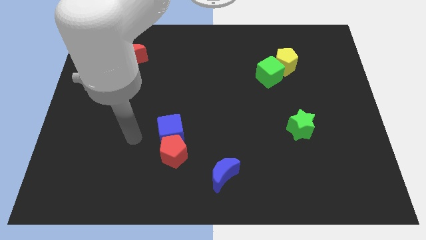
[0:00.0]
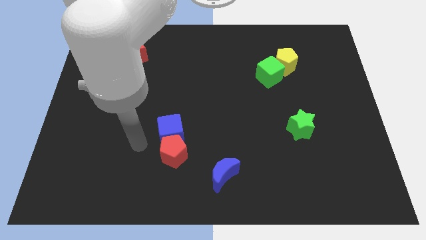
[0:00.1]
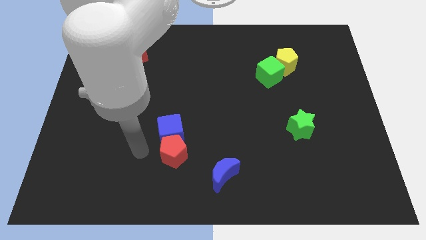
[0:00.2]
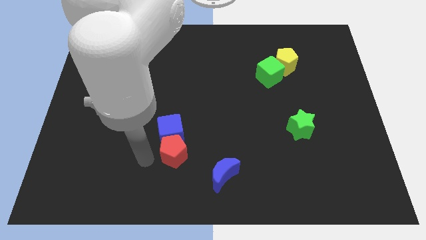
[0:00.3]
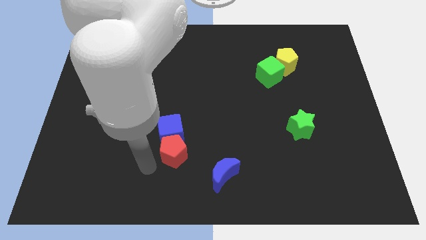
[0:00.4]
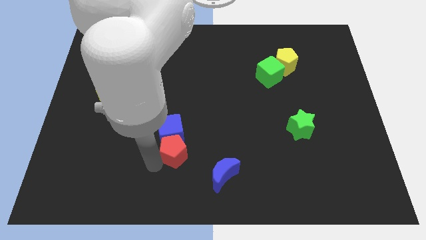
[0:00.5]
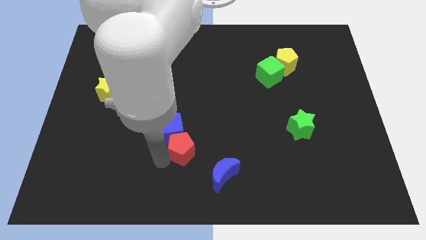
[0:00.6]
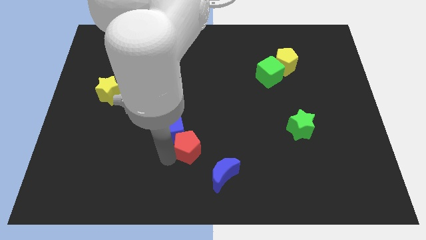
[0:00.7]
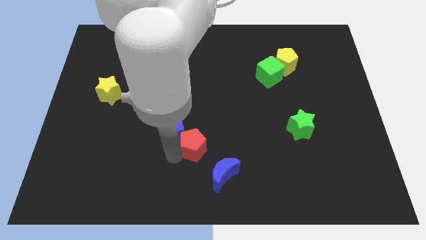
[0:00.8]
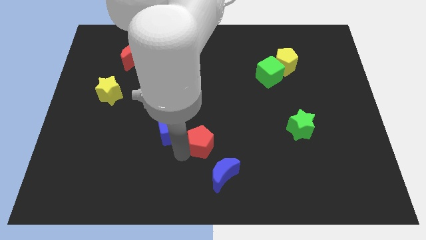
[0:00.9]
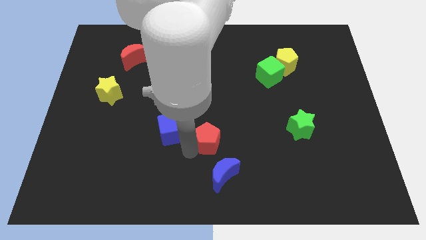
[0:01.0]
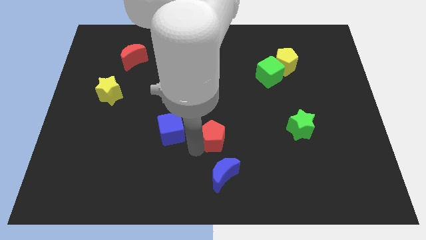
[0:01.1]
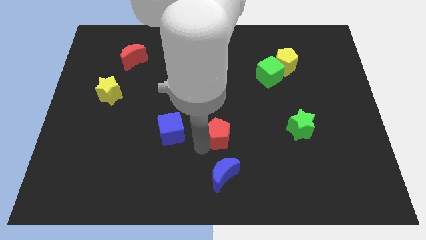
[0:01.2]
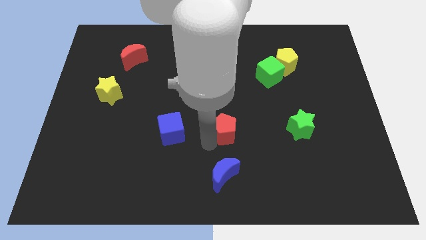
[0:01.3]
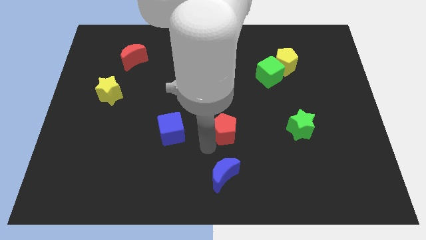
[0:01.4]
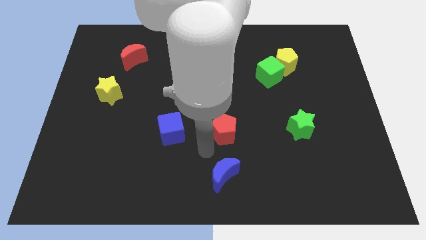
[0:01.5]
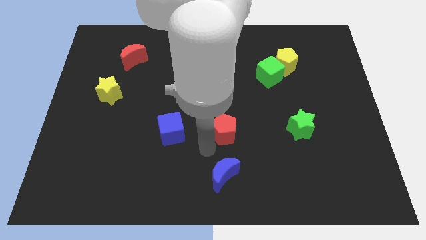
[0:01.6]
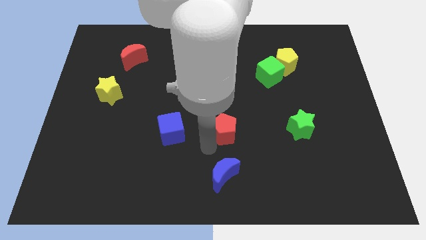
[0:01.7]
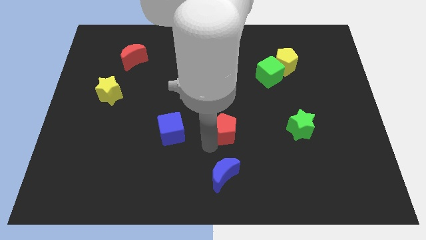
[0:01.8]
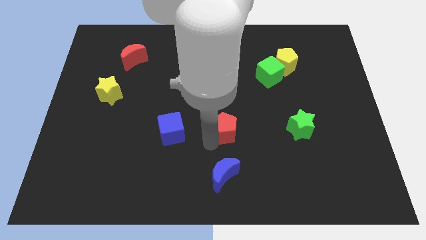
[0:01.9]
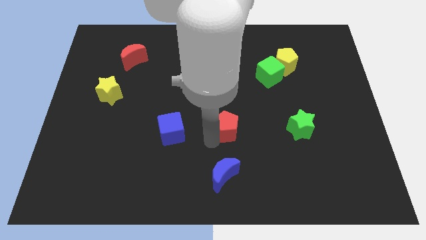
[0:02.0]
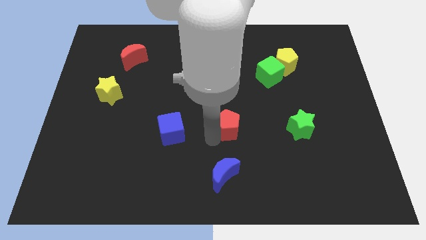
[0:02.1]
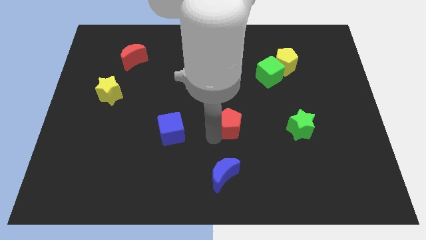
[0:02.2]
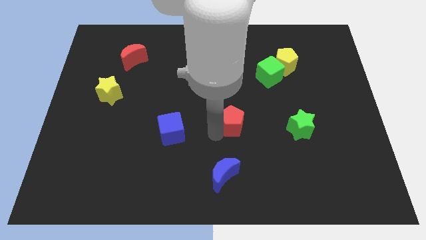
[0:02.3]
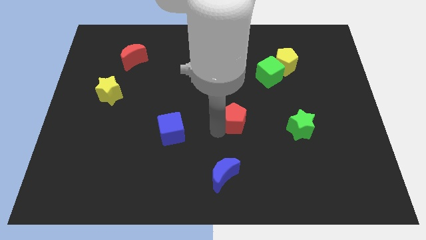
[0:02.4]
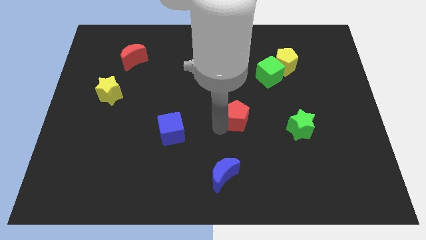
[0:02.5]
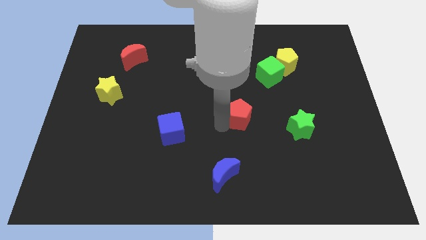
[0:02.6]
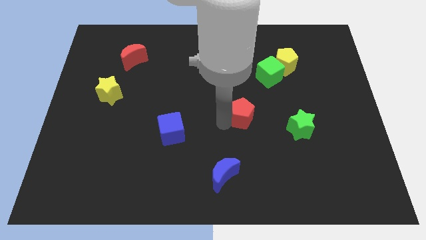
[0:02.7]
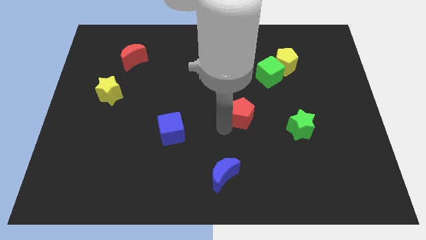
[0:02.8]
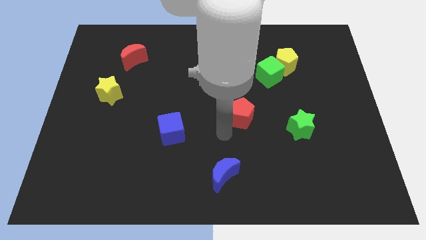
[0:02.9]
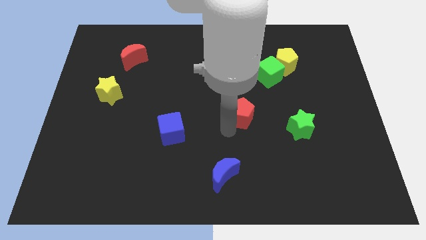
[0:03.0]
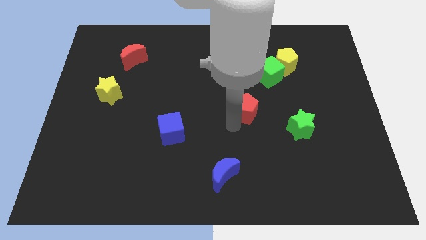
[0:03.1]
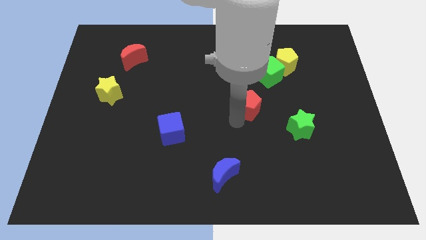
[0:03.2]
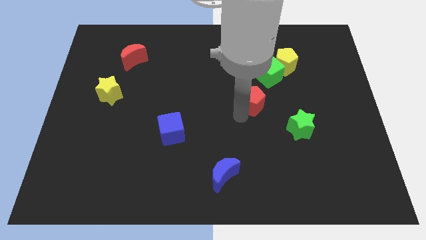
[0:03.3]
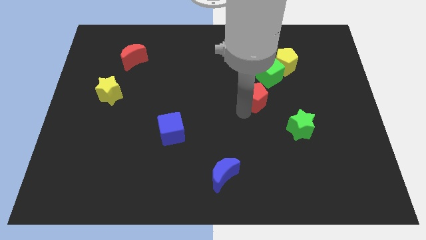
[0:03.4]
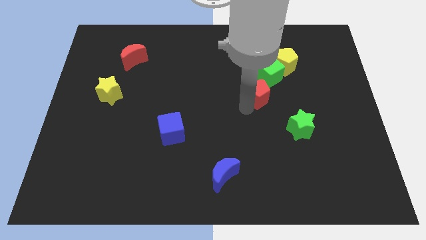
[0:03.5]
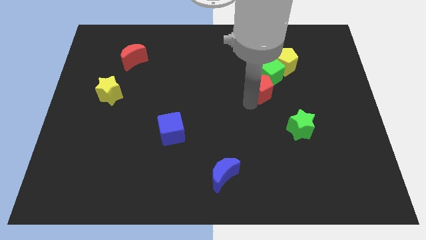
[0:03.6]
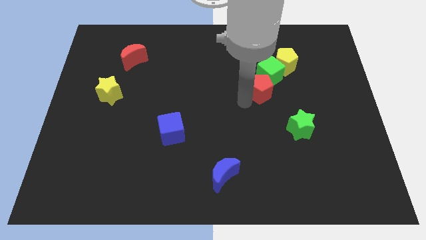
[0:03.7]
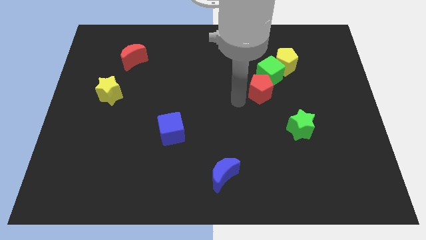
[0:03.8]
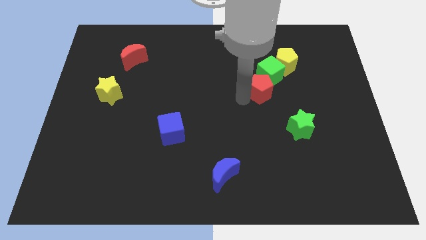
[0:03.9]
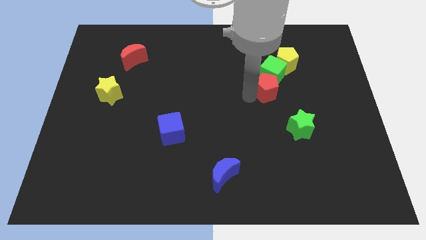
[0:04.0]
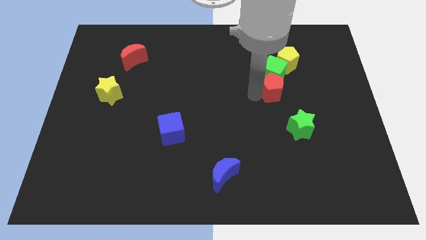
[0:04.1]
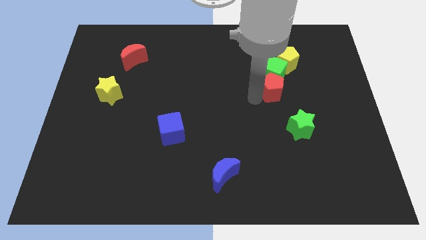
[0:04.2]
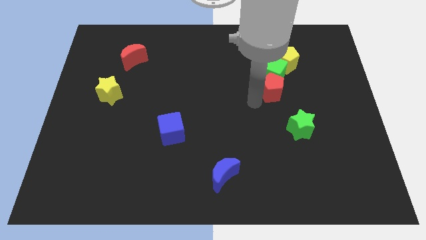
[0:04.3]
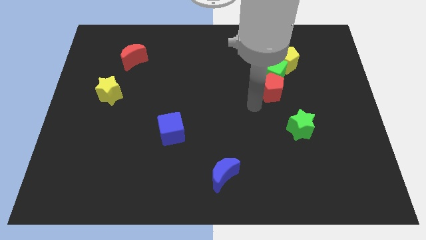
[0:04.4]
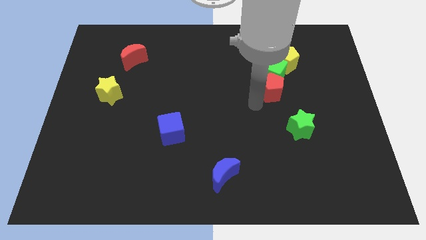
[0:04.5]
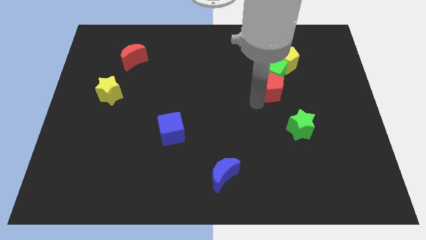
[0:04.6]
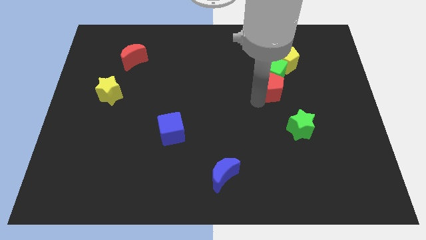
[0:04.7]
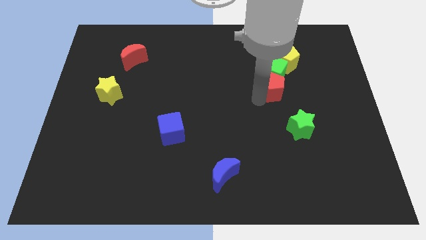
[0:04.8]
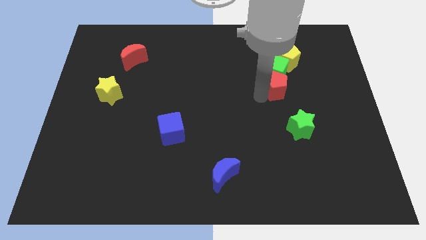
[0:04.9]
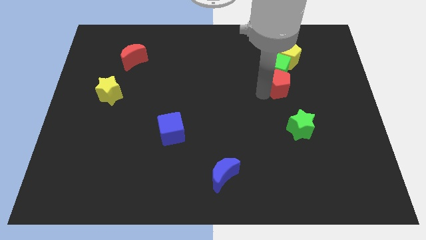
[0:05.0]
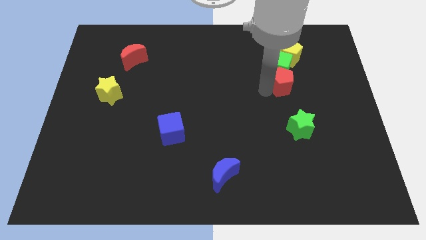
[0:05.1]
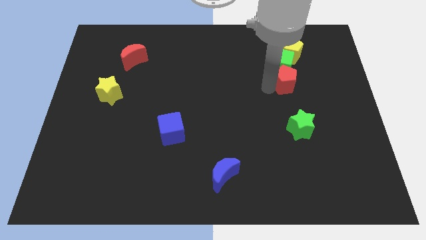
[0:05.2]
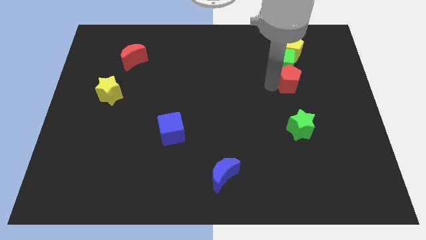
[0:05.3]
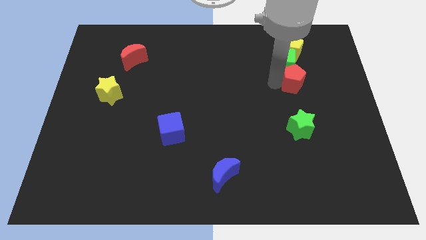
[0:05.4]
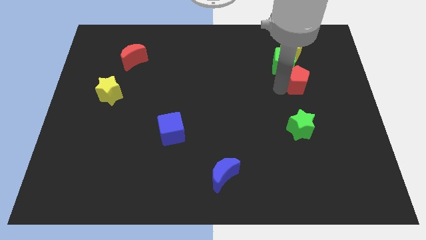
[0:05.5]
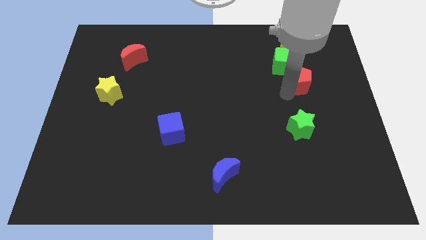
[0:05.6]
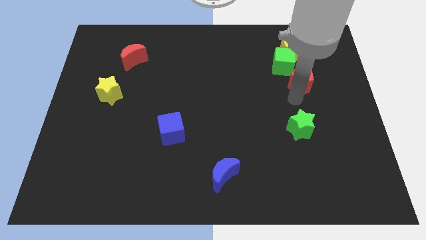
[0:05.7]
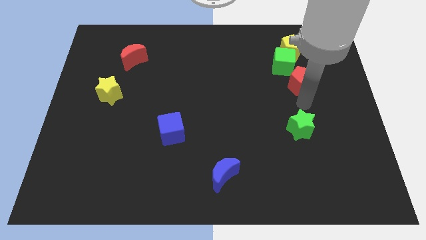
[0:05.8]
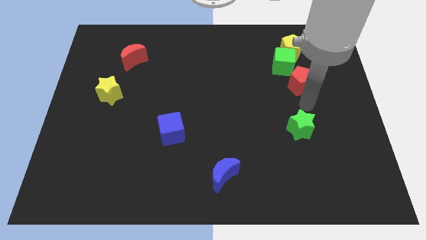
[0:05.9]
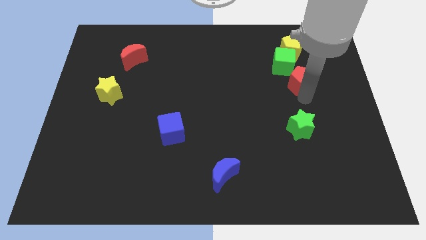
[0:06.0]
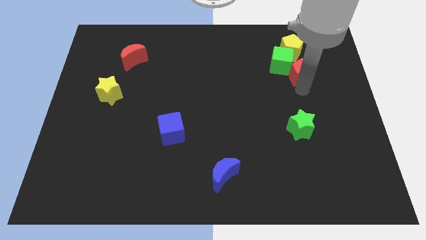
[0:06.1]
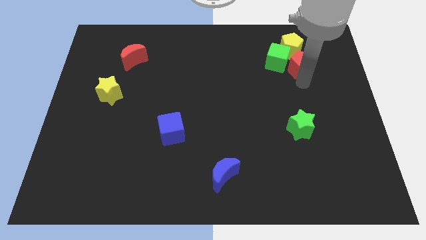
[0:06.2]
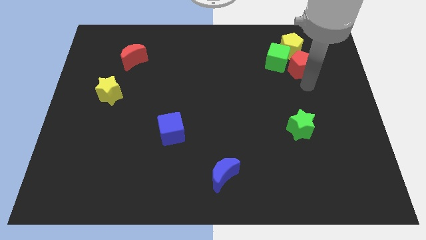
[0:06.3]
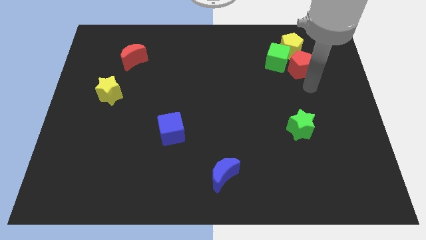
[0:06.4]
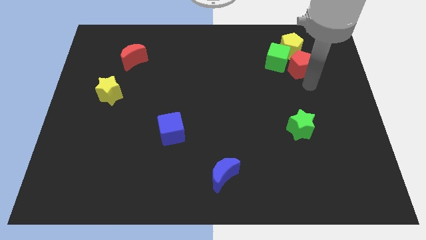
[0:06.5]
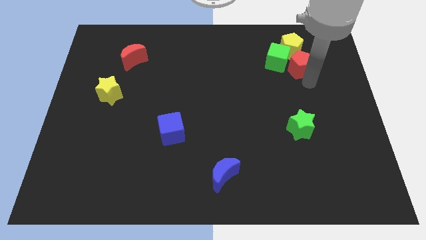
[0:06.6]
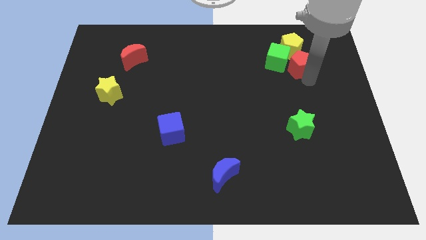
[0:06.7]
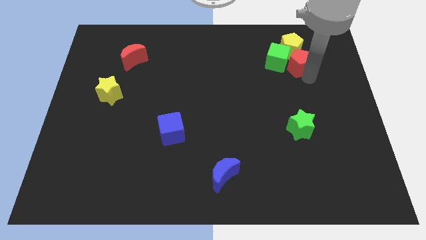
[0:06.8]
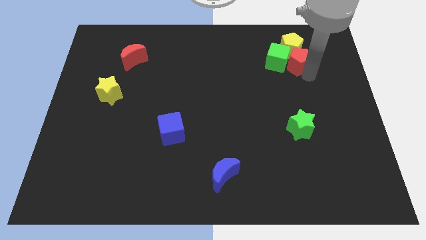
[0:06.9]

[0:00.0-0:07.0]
push the red pentagon close to the yellow pentagon

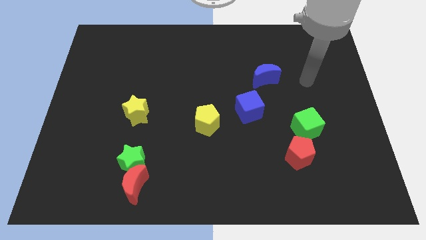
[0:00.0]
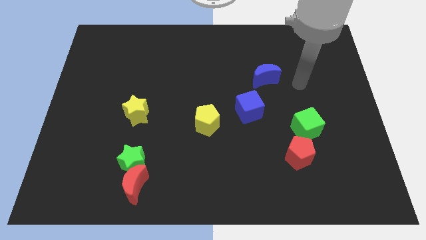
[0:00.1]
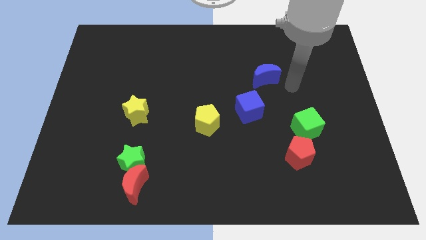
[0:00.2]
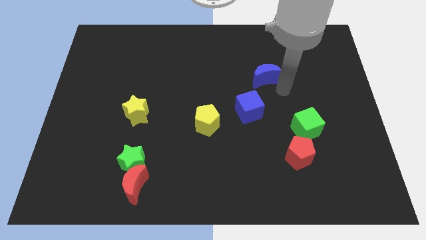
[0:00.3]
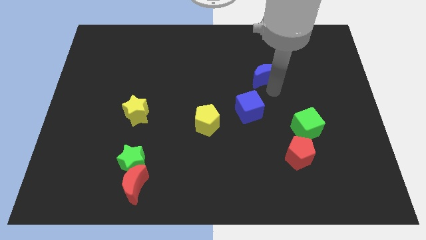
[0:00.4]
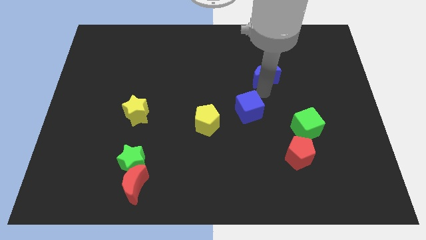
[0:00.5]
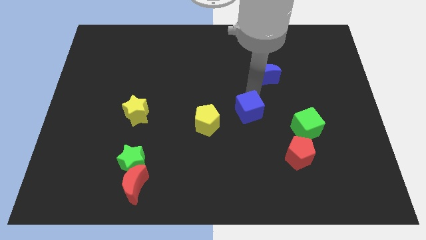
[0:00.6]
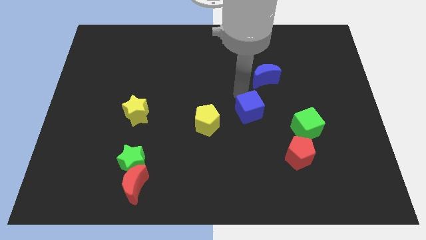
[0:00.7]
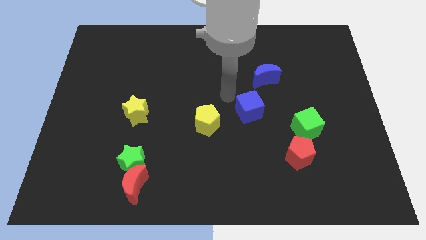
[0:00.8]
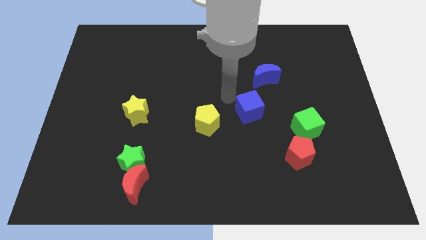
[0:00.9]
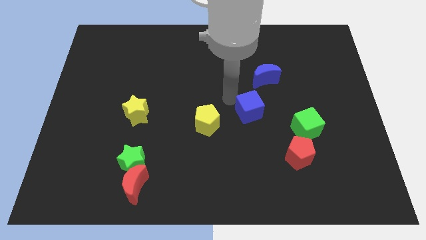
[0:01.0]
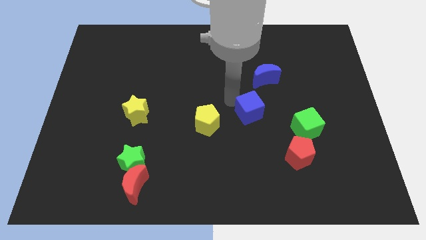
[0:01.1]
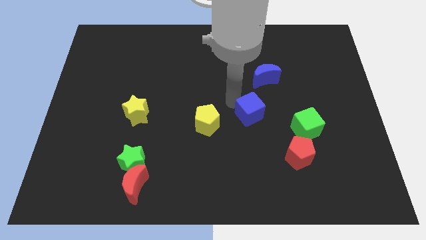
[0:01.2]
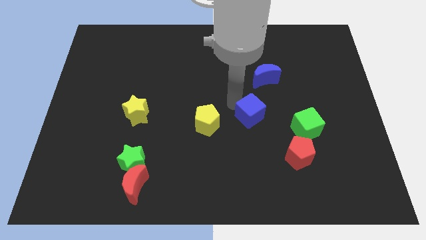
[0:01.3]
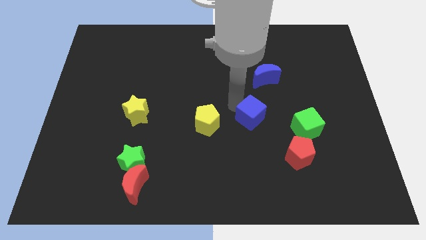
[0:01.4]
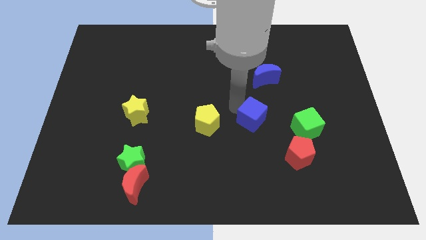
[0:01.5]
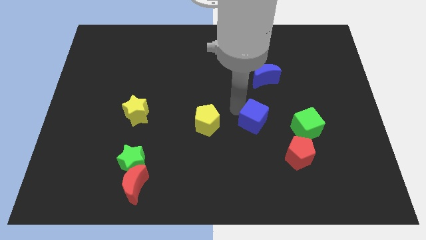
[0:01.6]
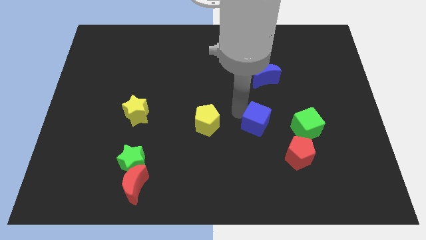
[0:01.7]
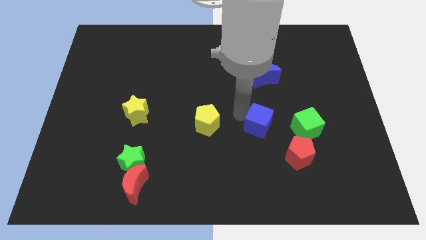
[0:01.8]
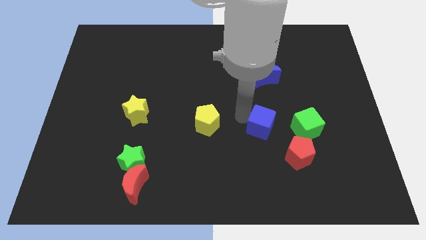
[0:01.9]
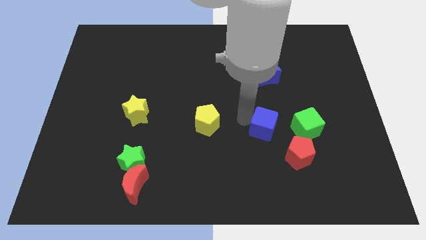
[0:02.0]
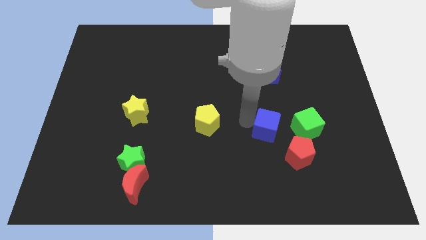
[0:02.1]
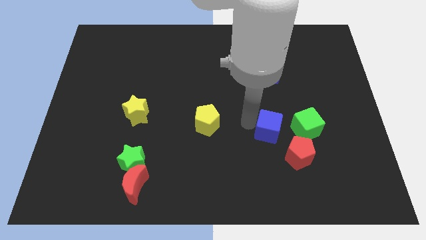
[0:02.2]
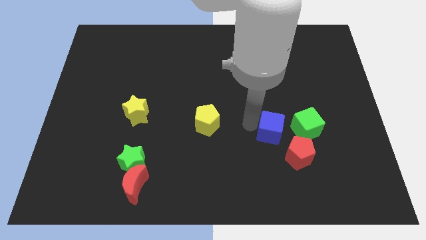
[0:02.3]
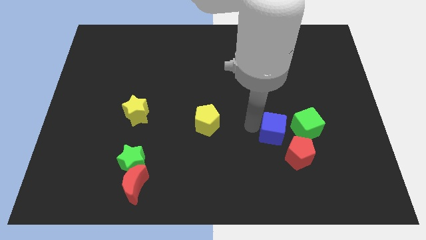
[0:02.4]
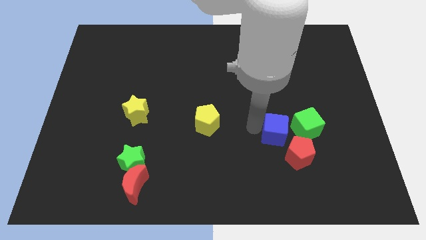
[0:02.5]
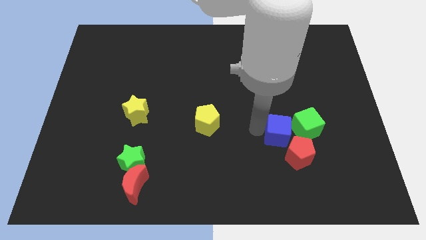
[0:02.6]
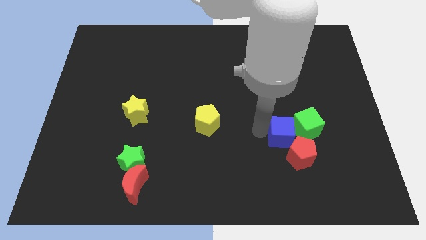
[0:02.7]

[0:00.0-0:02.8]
slide the blue cube next to the green cube
